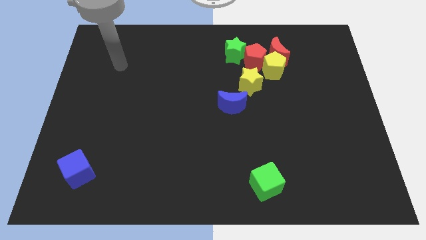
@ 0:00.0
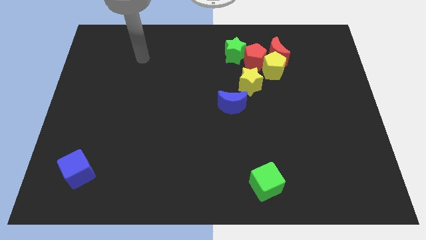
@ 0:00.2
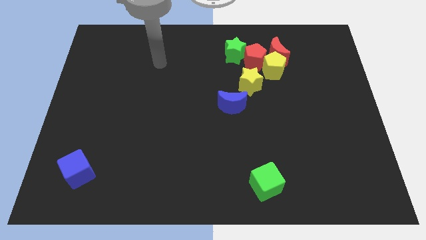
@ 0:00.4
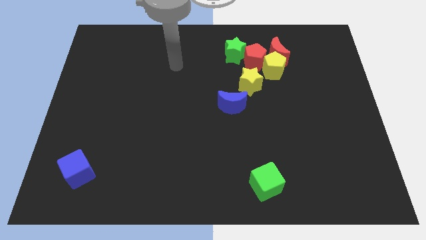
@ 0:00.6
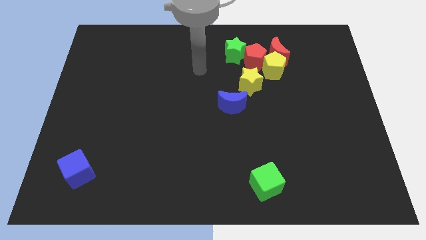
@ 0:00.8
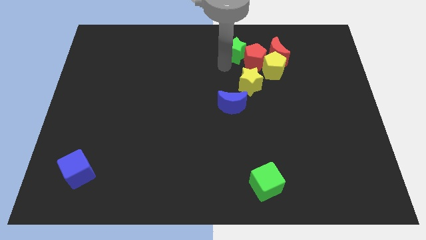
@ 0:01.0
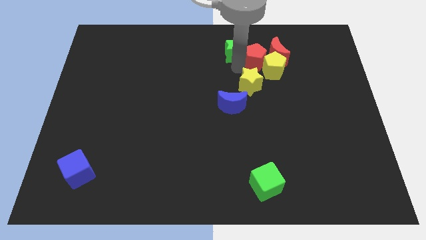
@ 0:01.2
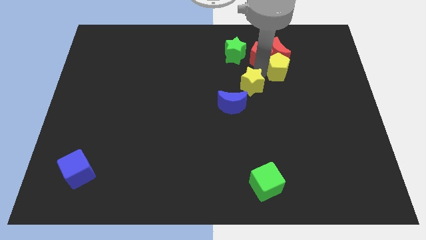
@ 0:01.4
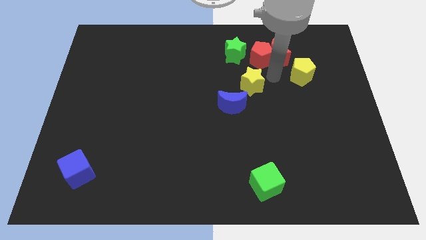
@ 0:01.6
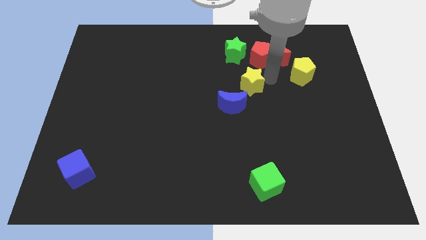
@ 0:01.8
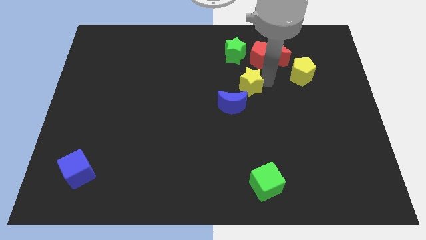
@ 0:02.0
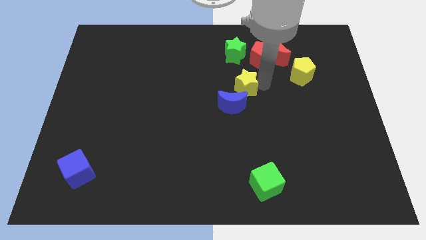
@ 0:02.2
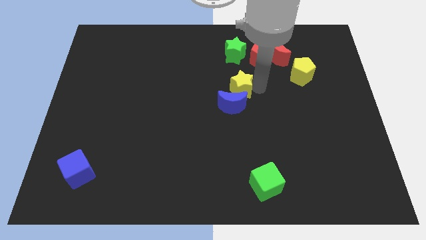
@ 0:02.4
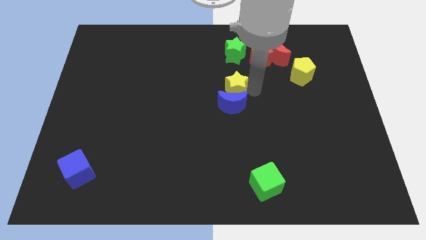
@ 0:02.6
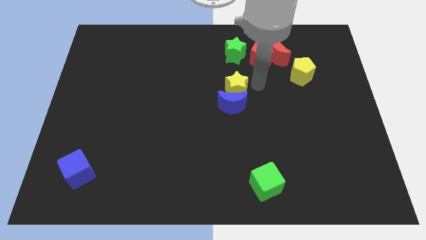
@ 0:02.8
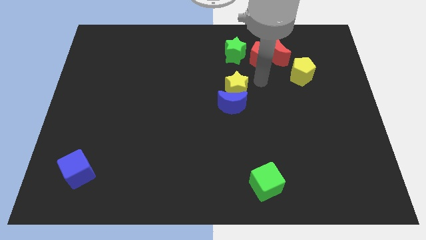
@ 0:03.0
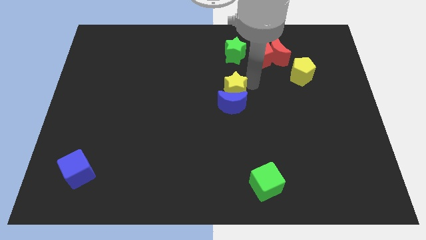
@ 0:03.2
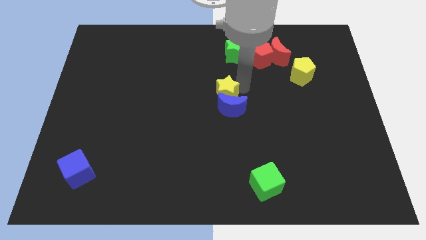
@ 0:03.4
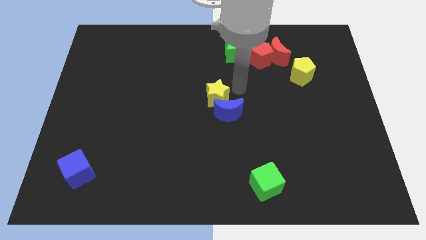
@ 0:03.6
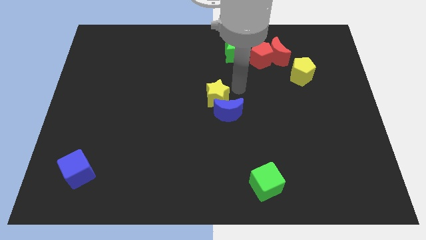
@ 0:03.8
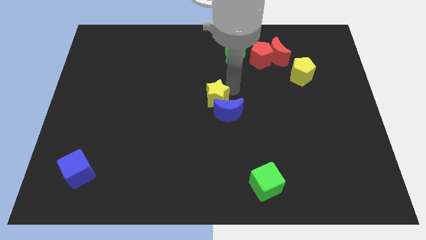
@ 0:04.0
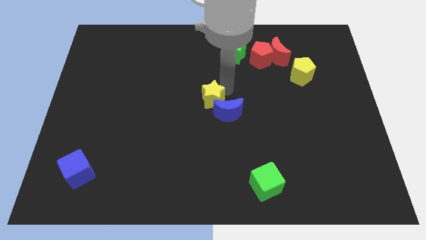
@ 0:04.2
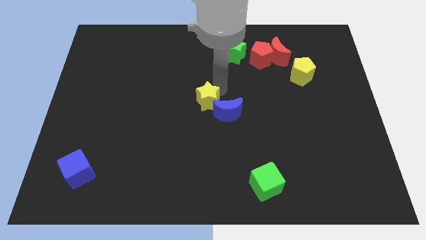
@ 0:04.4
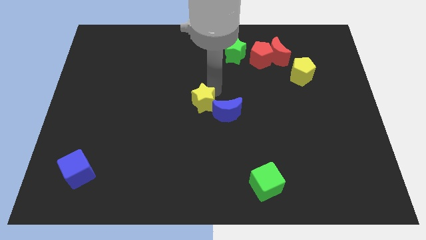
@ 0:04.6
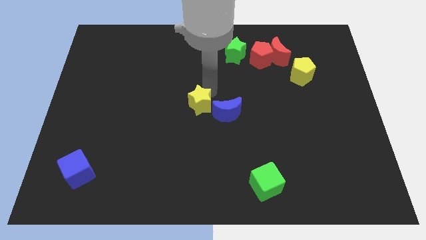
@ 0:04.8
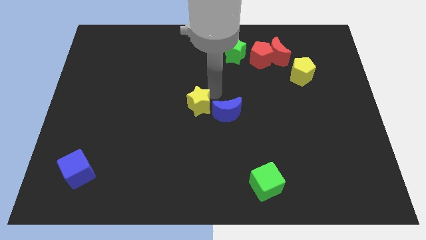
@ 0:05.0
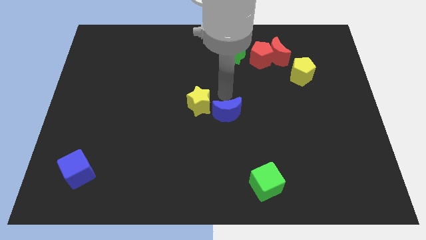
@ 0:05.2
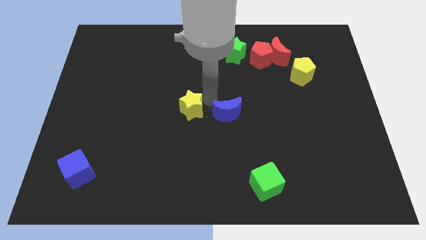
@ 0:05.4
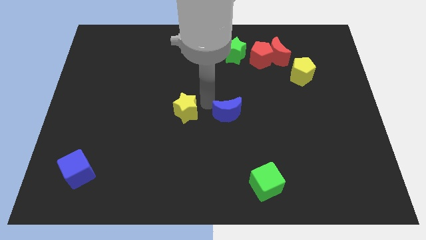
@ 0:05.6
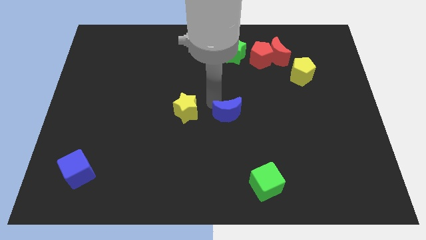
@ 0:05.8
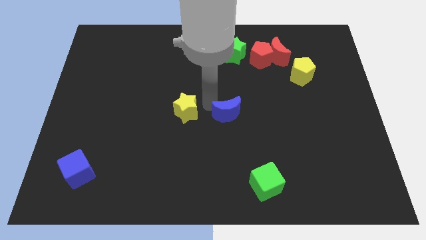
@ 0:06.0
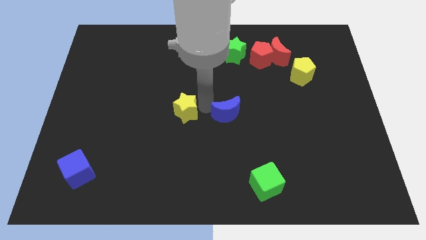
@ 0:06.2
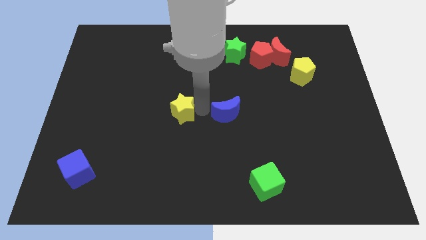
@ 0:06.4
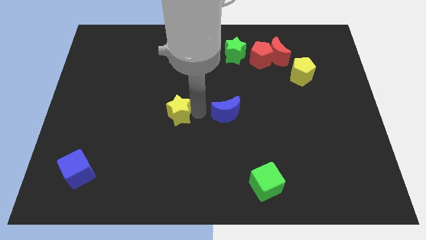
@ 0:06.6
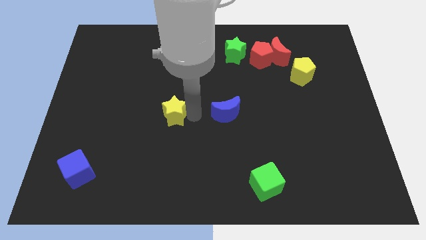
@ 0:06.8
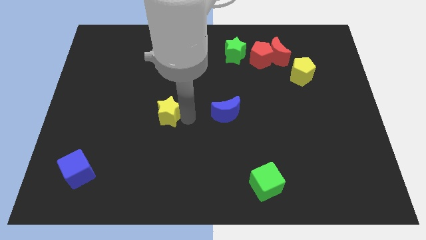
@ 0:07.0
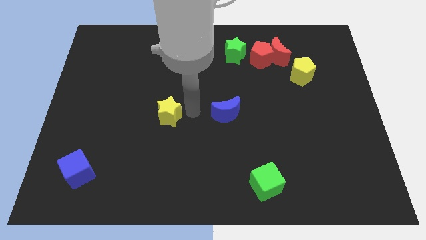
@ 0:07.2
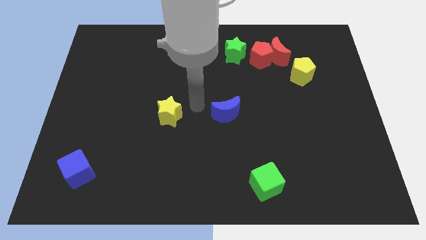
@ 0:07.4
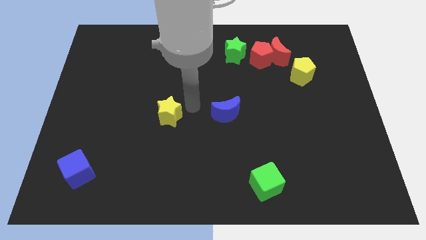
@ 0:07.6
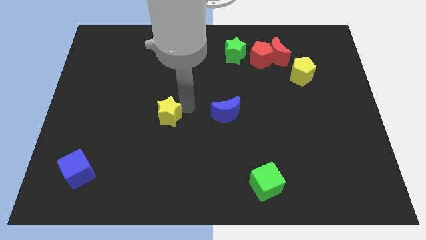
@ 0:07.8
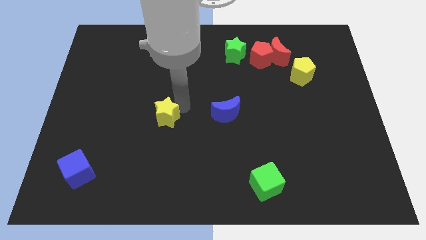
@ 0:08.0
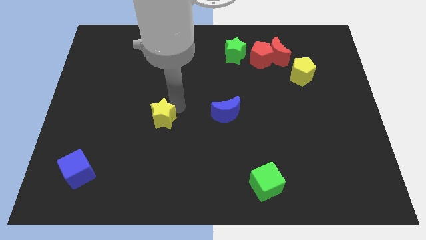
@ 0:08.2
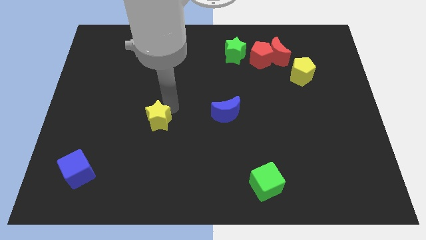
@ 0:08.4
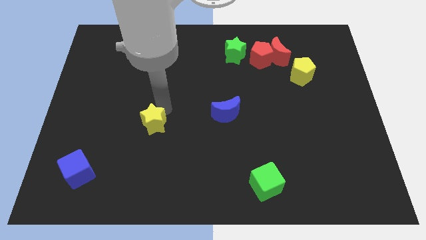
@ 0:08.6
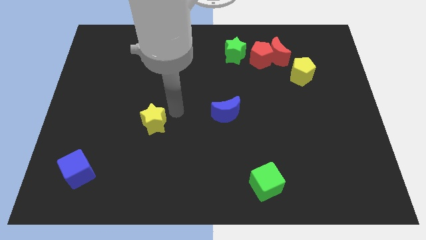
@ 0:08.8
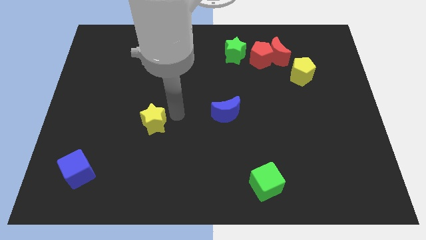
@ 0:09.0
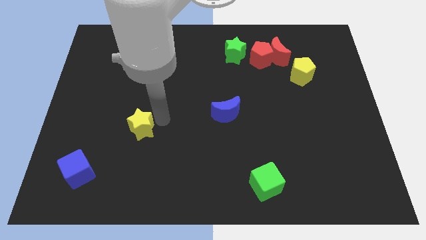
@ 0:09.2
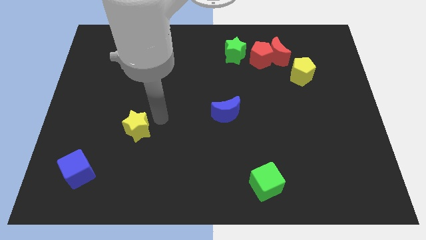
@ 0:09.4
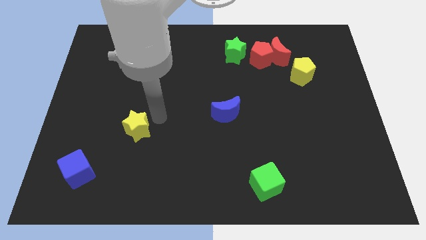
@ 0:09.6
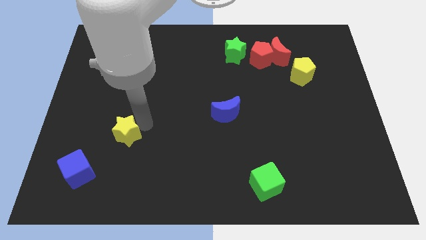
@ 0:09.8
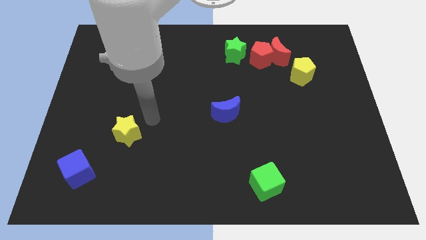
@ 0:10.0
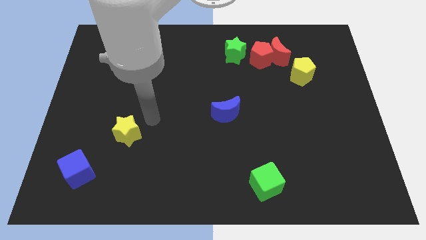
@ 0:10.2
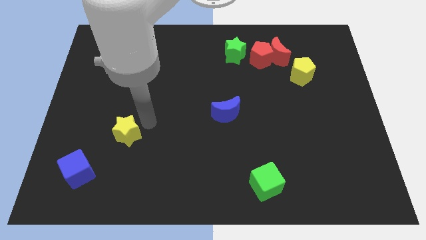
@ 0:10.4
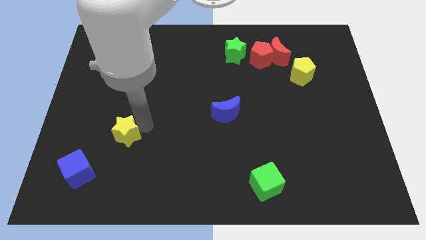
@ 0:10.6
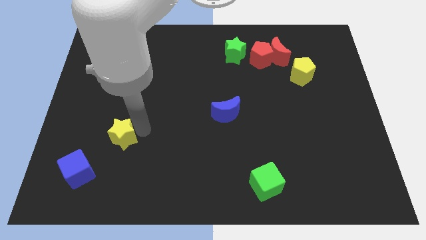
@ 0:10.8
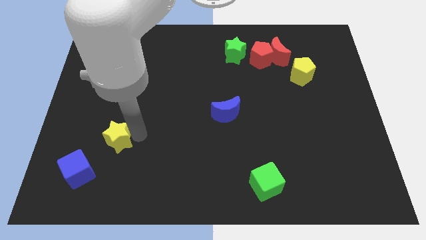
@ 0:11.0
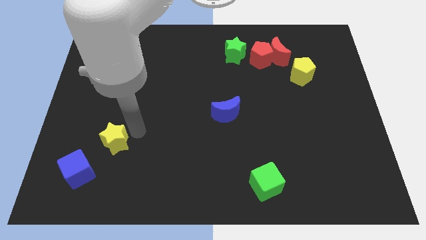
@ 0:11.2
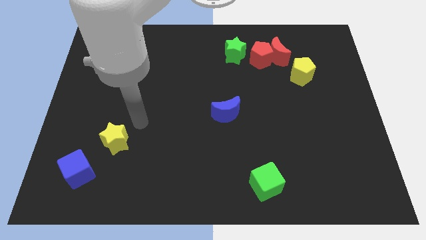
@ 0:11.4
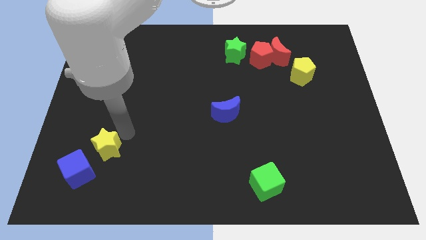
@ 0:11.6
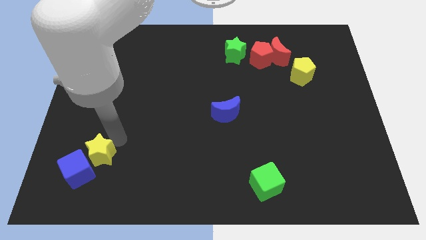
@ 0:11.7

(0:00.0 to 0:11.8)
put the yellow star close to the blue cube

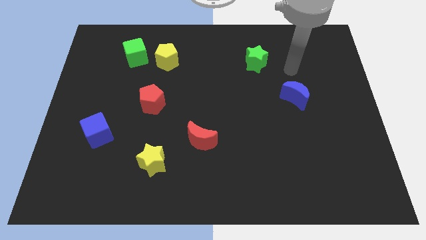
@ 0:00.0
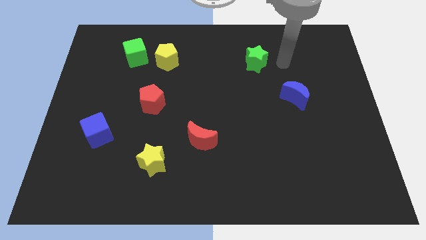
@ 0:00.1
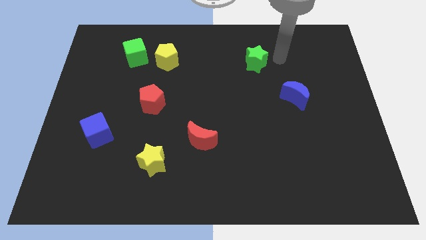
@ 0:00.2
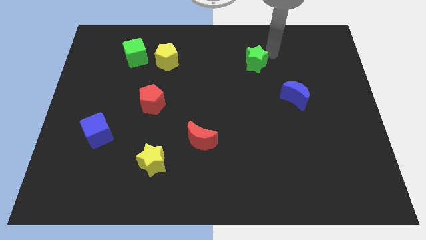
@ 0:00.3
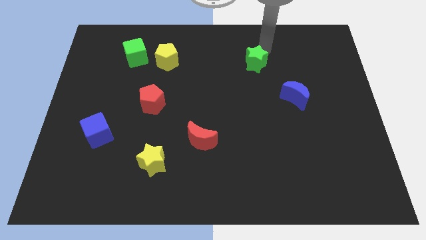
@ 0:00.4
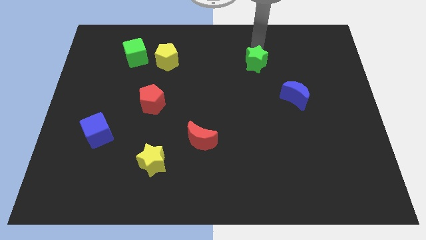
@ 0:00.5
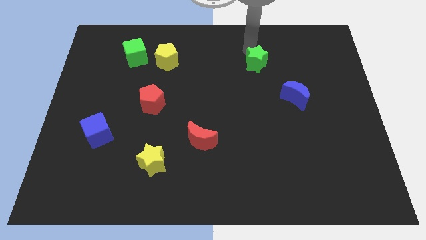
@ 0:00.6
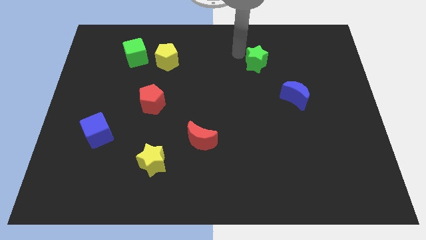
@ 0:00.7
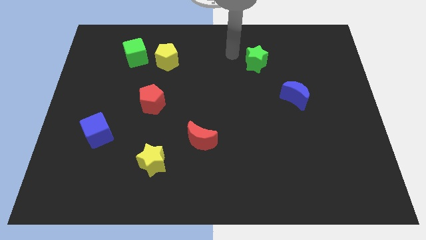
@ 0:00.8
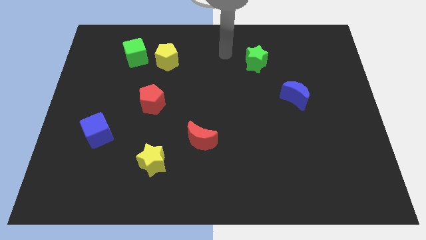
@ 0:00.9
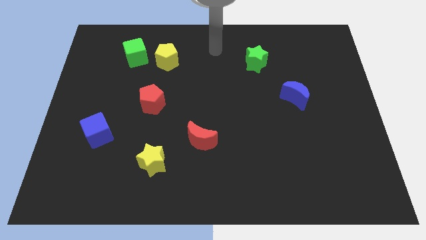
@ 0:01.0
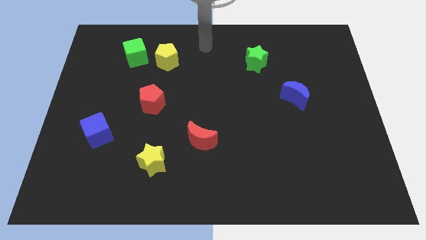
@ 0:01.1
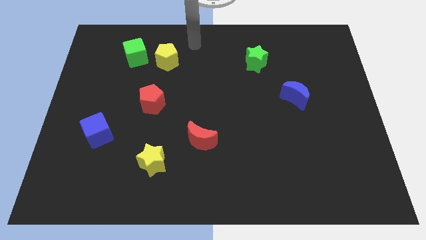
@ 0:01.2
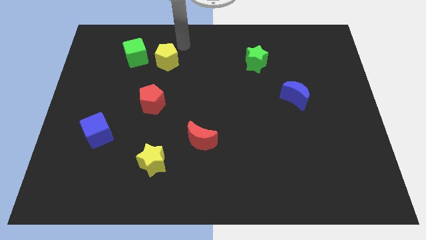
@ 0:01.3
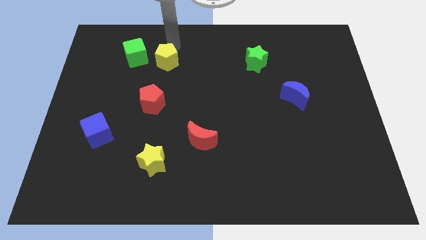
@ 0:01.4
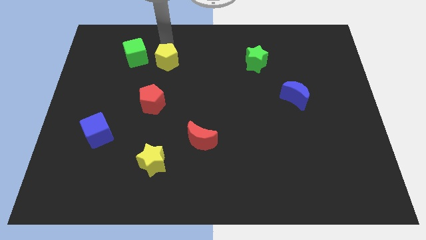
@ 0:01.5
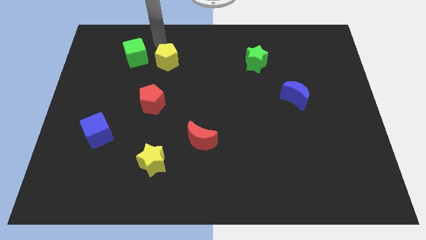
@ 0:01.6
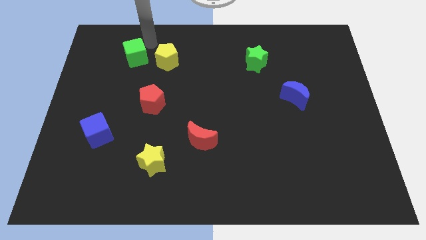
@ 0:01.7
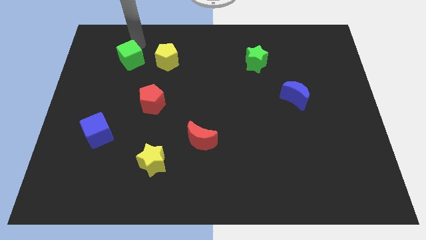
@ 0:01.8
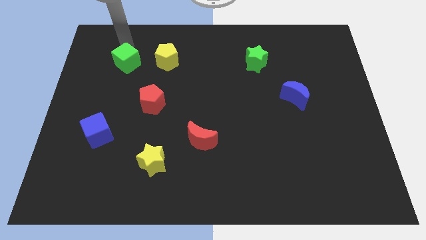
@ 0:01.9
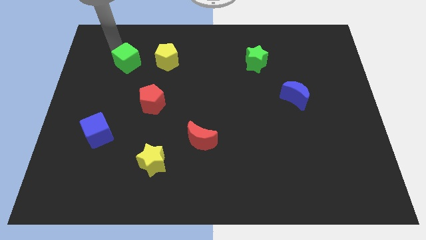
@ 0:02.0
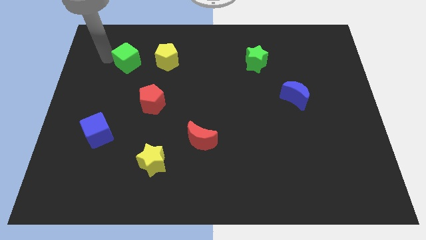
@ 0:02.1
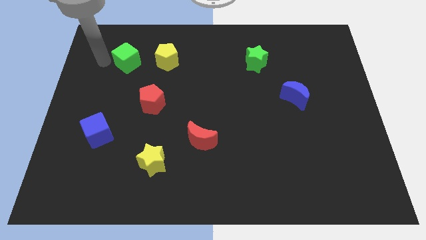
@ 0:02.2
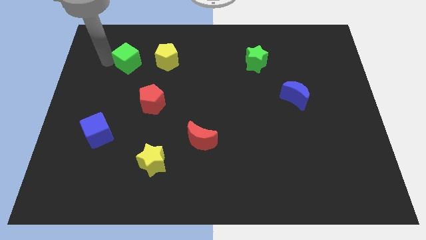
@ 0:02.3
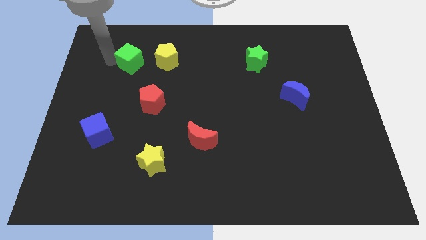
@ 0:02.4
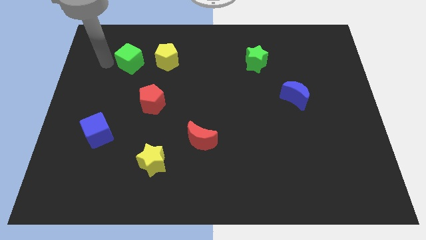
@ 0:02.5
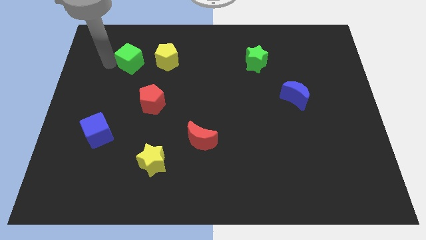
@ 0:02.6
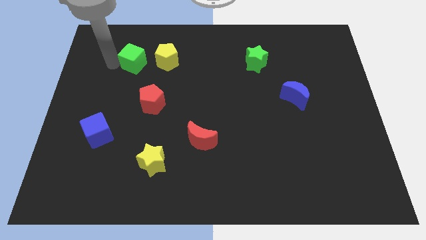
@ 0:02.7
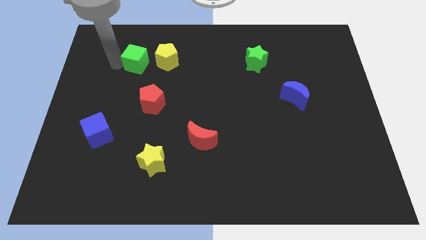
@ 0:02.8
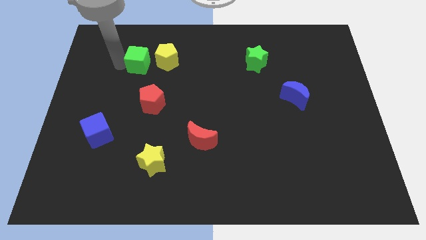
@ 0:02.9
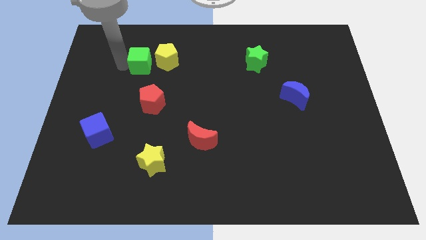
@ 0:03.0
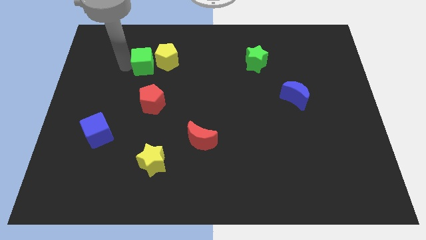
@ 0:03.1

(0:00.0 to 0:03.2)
put the green cube to the yellow pentagon
